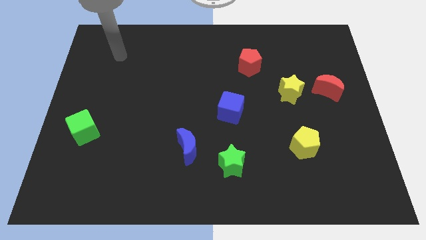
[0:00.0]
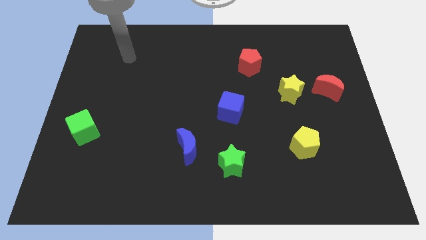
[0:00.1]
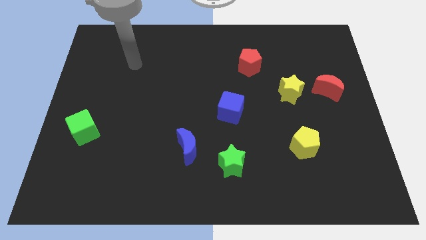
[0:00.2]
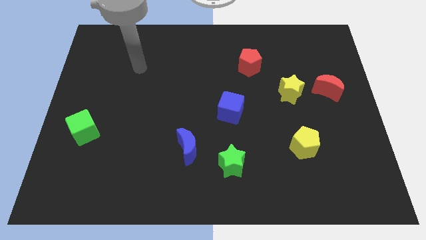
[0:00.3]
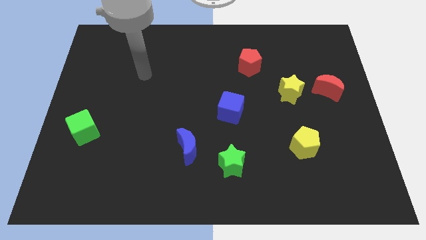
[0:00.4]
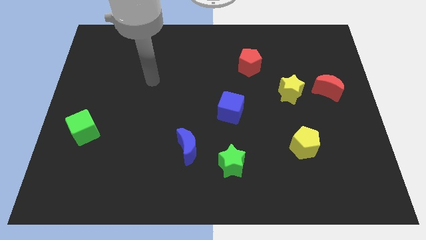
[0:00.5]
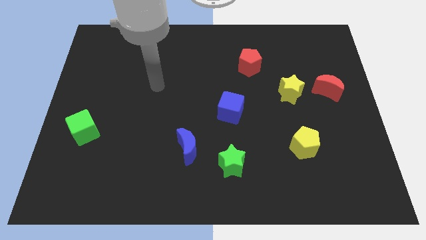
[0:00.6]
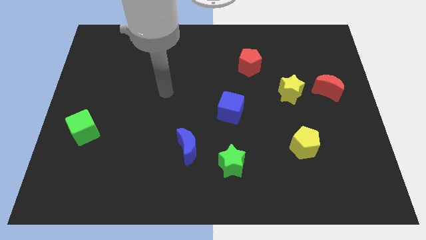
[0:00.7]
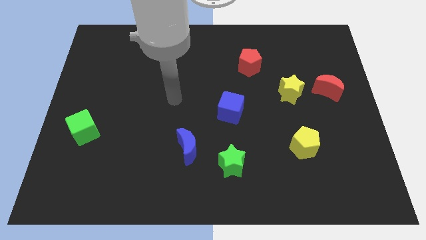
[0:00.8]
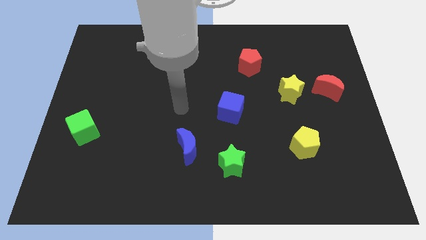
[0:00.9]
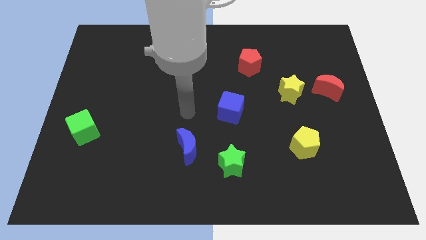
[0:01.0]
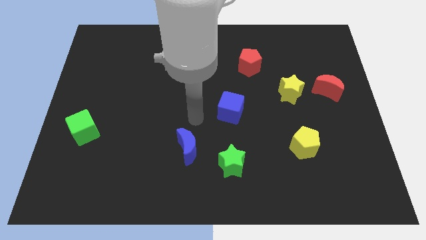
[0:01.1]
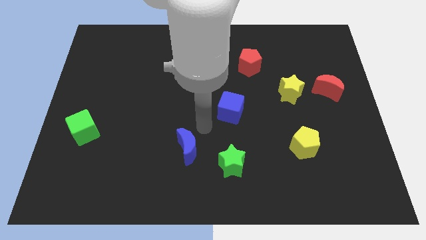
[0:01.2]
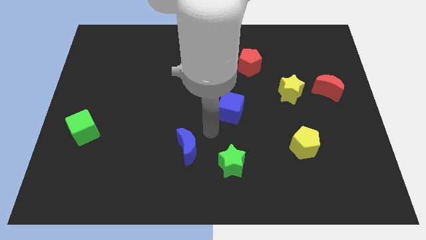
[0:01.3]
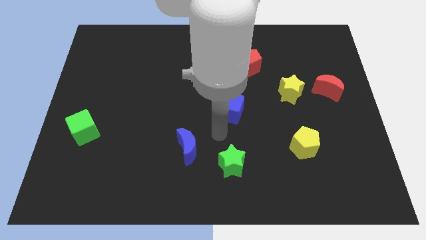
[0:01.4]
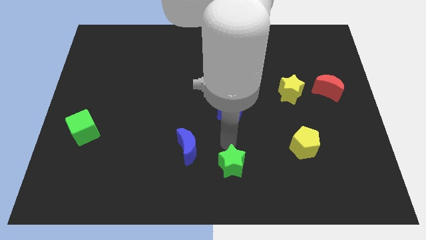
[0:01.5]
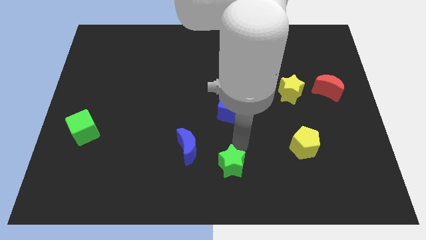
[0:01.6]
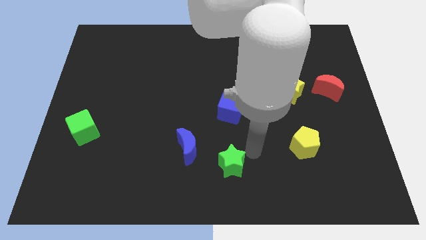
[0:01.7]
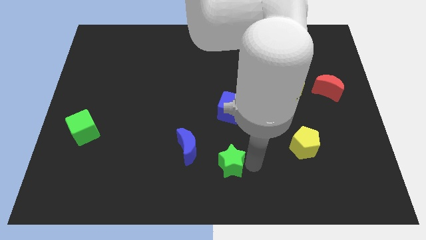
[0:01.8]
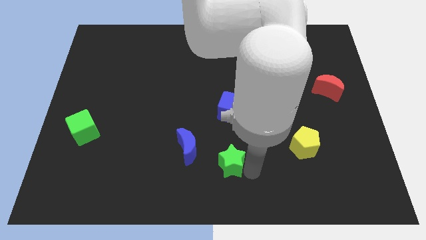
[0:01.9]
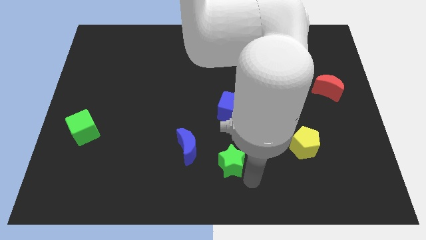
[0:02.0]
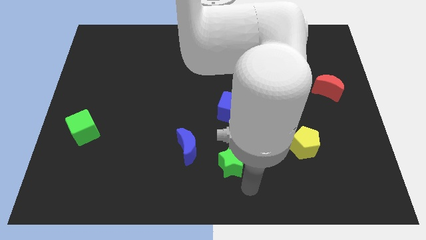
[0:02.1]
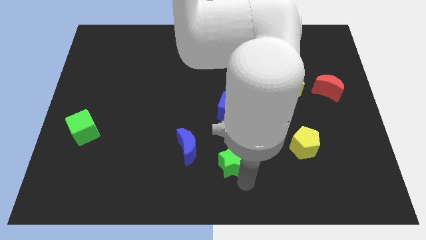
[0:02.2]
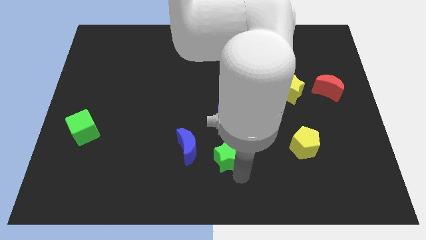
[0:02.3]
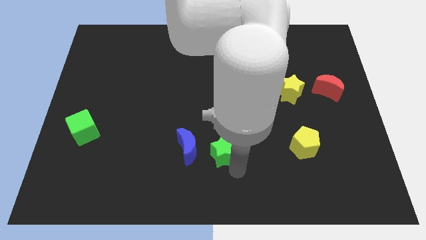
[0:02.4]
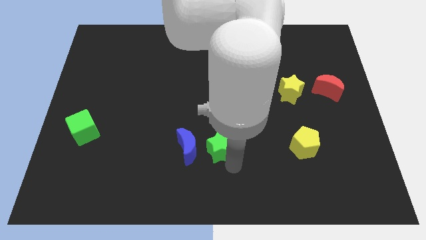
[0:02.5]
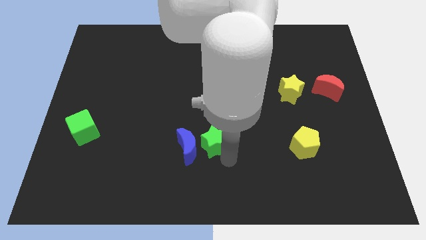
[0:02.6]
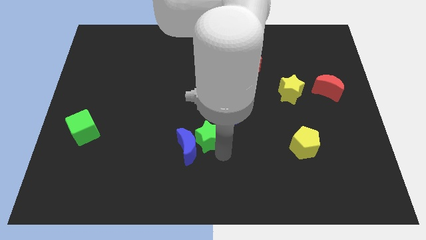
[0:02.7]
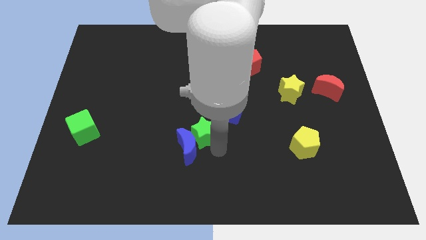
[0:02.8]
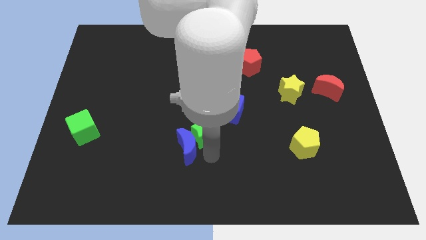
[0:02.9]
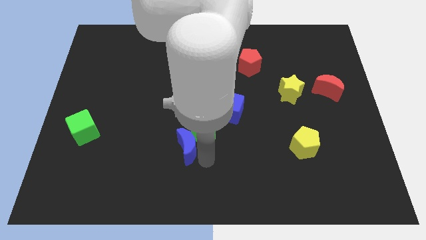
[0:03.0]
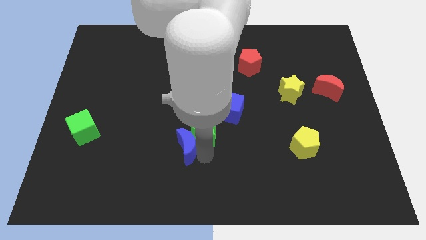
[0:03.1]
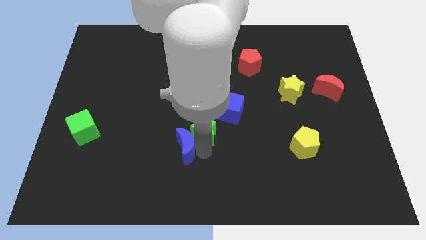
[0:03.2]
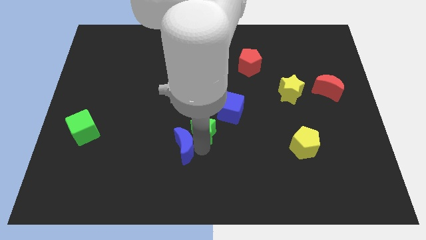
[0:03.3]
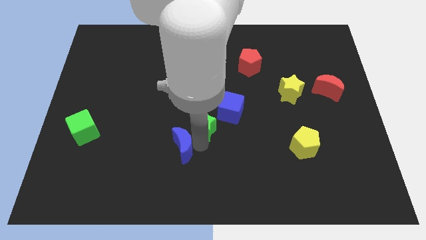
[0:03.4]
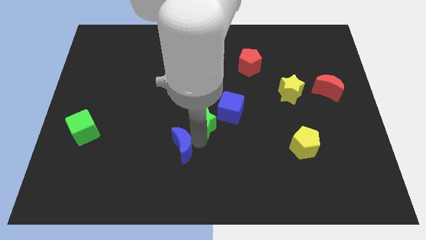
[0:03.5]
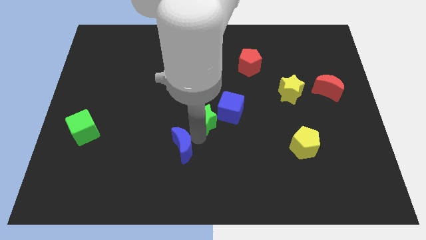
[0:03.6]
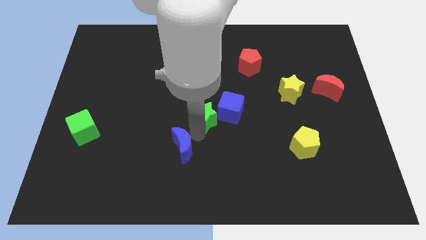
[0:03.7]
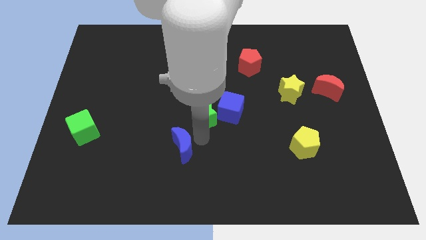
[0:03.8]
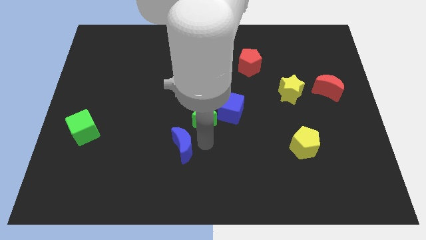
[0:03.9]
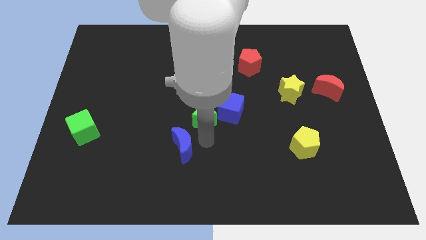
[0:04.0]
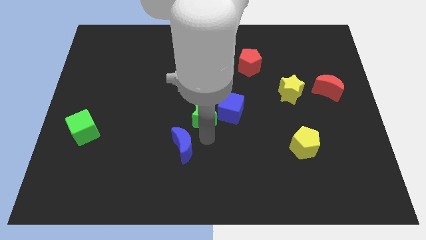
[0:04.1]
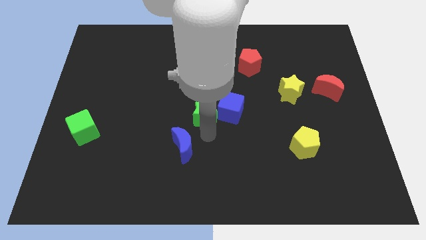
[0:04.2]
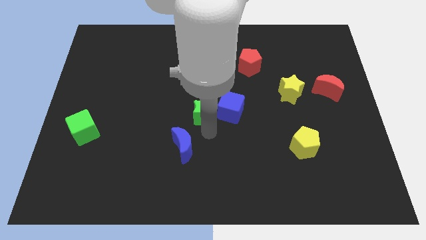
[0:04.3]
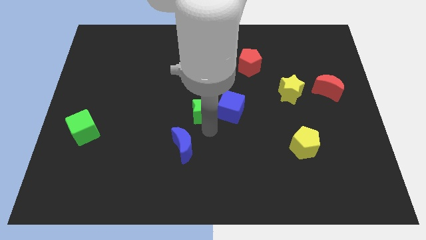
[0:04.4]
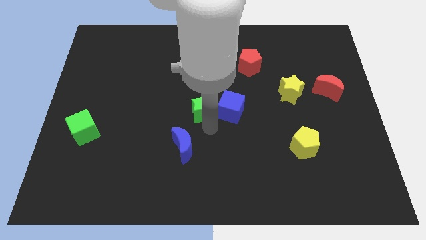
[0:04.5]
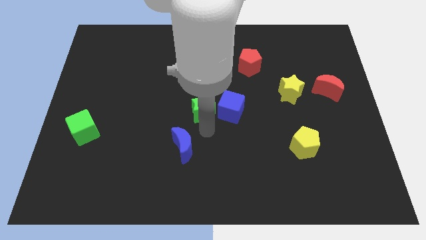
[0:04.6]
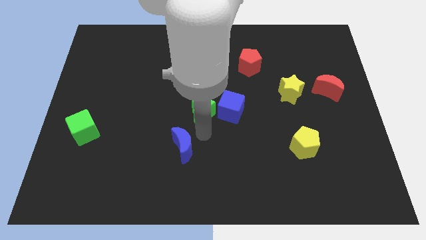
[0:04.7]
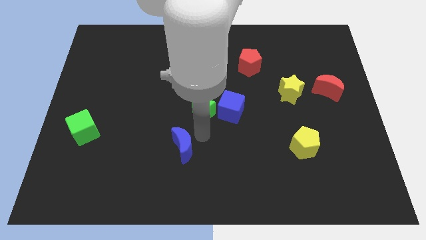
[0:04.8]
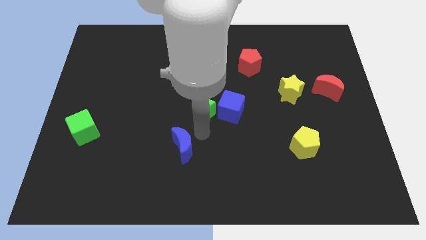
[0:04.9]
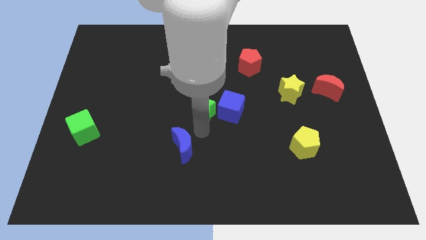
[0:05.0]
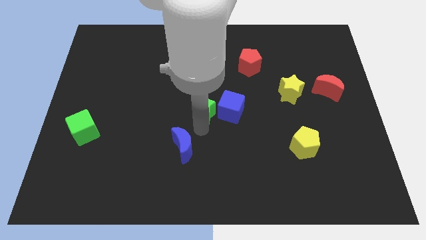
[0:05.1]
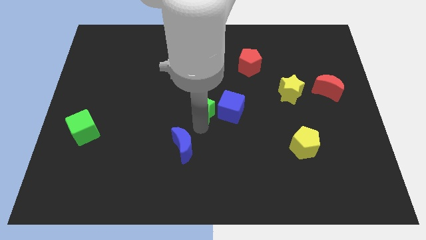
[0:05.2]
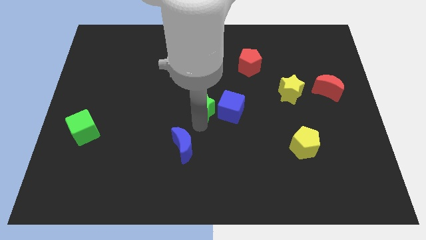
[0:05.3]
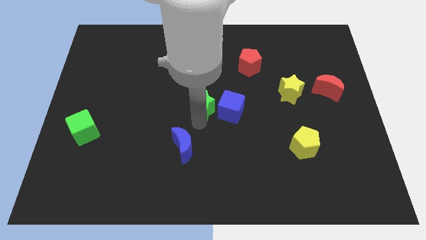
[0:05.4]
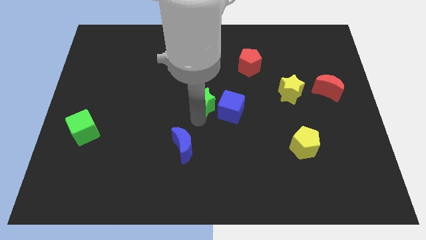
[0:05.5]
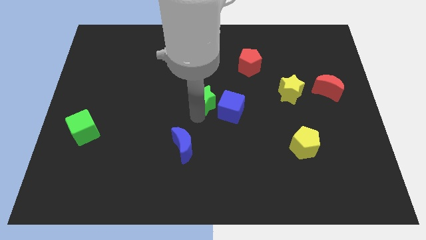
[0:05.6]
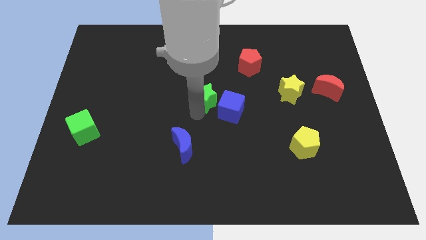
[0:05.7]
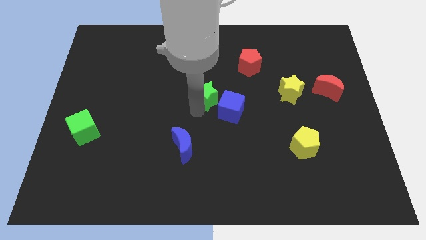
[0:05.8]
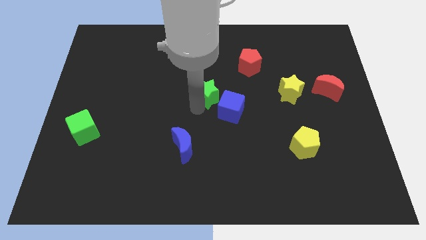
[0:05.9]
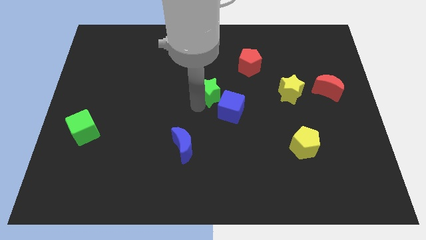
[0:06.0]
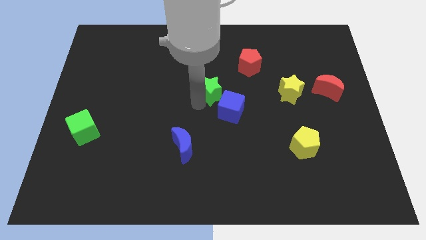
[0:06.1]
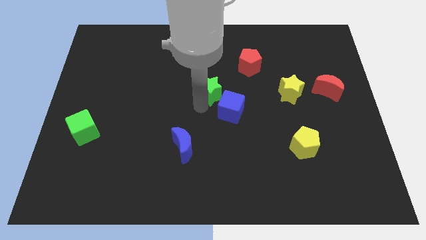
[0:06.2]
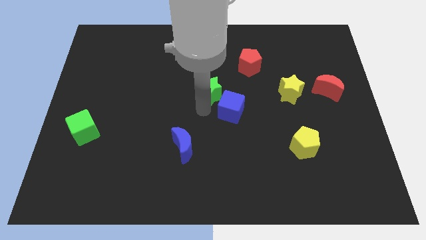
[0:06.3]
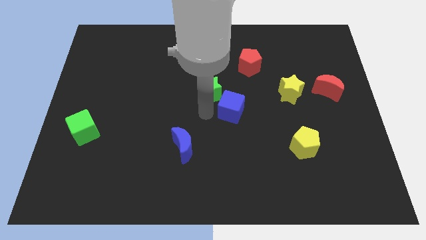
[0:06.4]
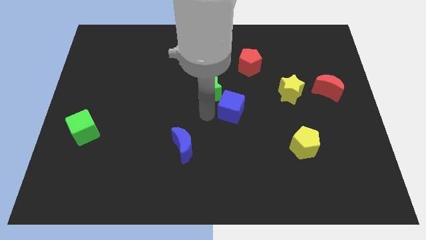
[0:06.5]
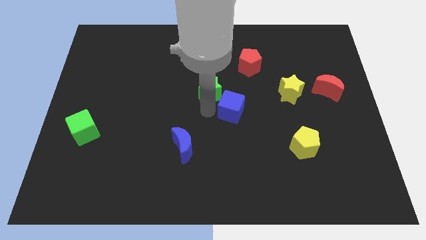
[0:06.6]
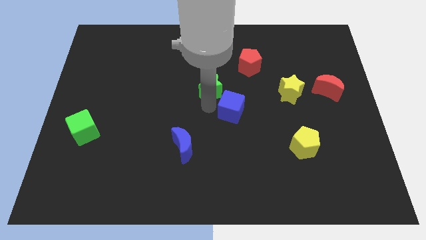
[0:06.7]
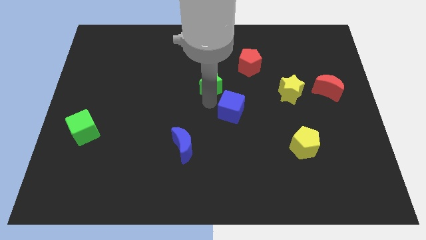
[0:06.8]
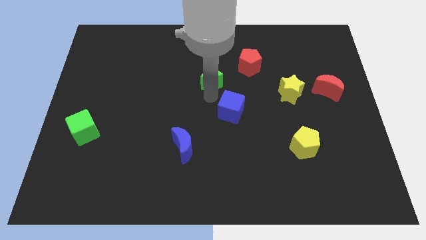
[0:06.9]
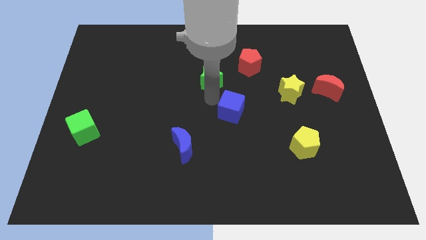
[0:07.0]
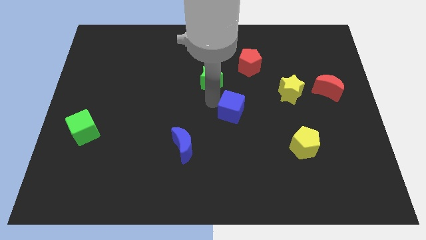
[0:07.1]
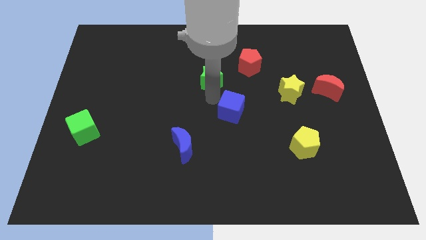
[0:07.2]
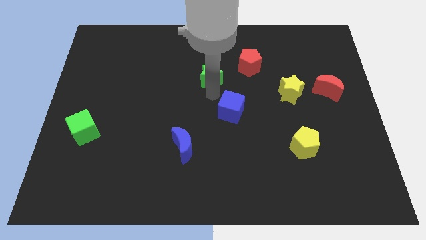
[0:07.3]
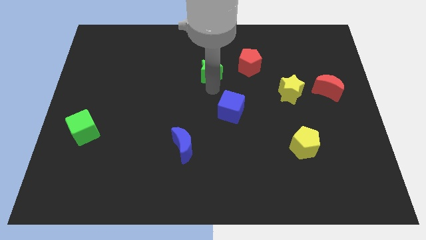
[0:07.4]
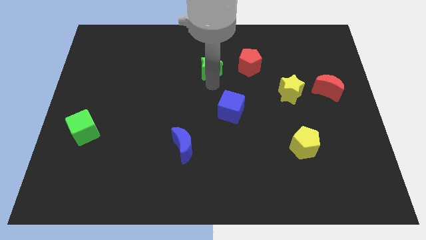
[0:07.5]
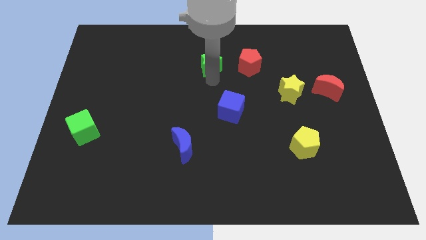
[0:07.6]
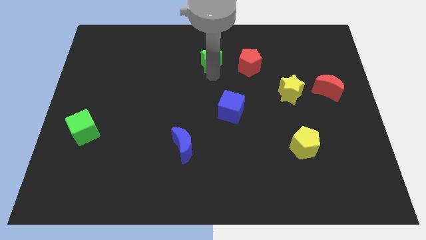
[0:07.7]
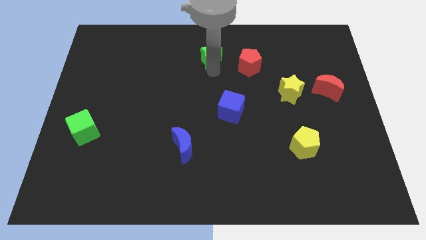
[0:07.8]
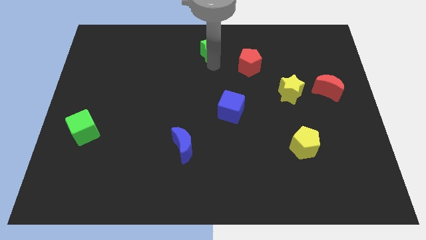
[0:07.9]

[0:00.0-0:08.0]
push the green star to the top
